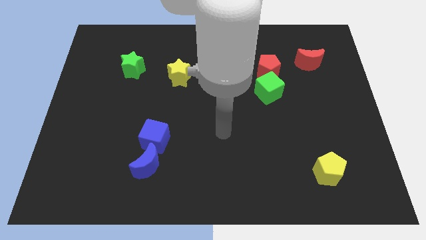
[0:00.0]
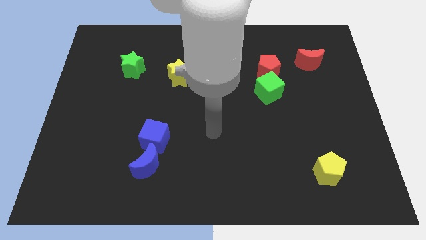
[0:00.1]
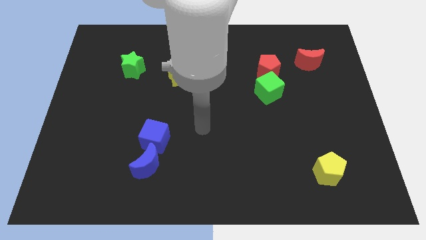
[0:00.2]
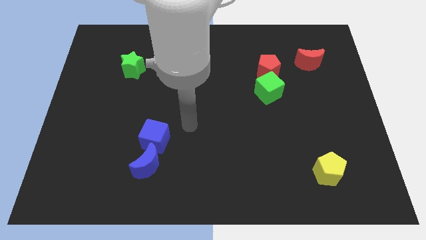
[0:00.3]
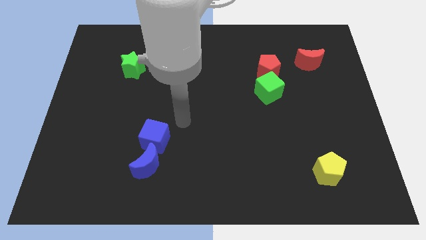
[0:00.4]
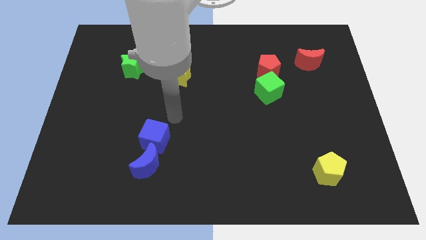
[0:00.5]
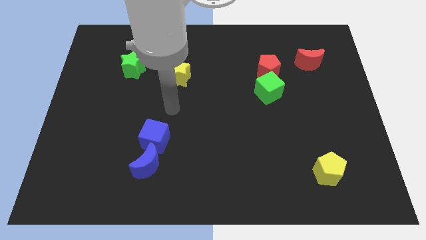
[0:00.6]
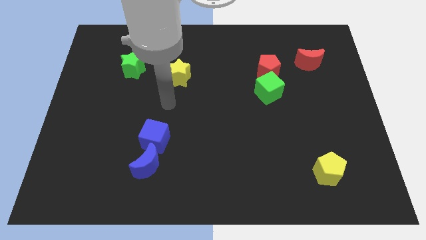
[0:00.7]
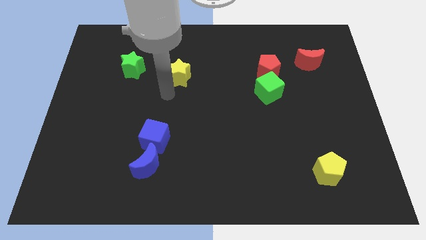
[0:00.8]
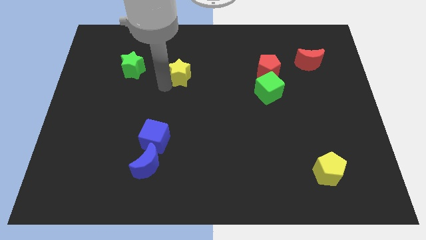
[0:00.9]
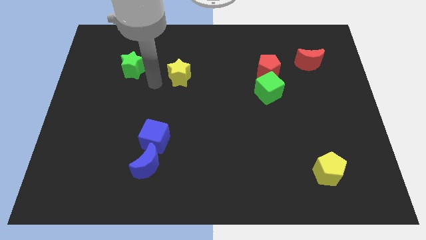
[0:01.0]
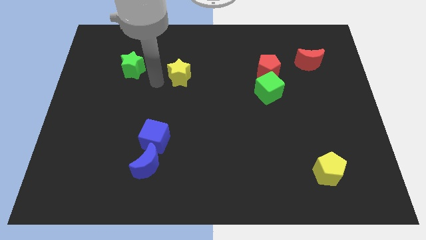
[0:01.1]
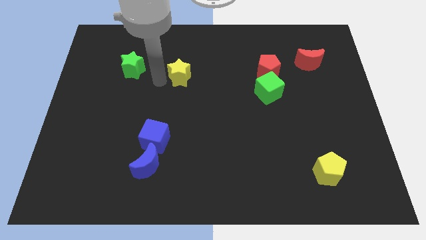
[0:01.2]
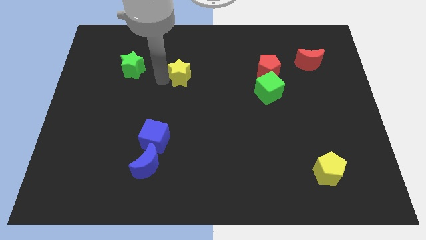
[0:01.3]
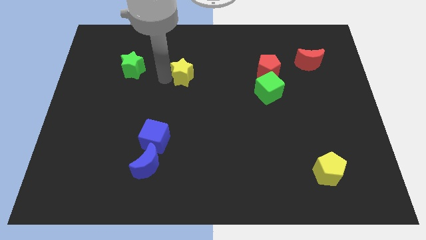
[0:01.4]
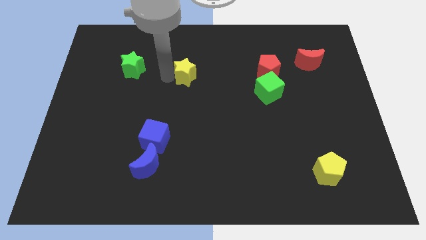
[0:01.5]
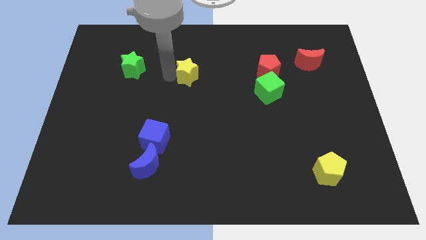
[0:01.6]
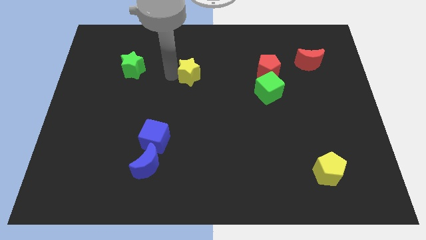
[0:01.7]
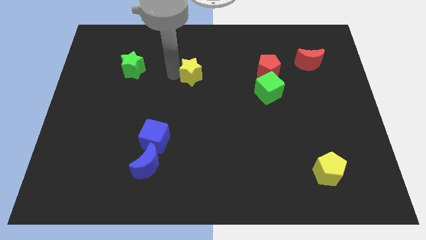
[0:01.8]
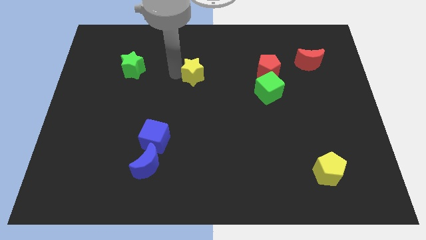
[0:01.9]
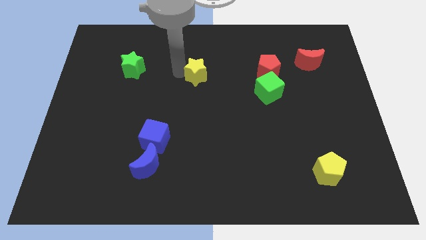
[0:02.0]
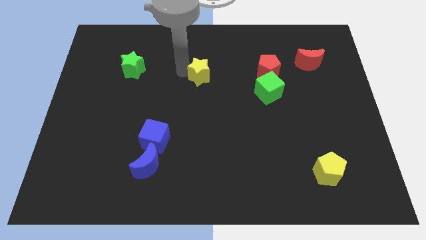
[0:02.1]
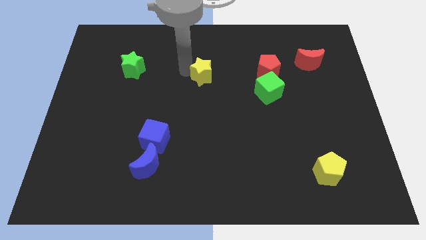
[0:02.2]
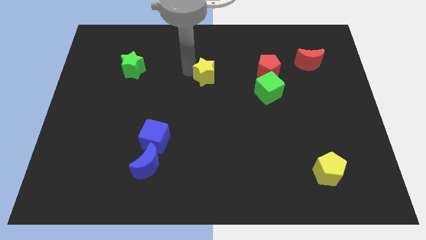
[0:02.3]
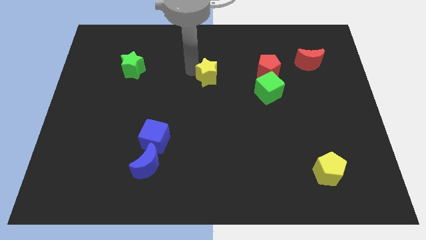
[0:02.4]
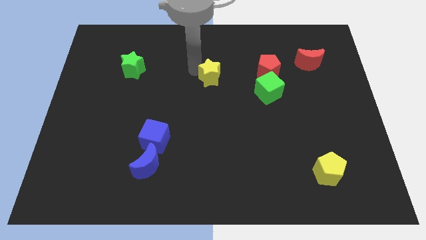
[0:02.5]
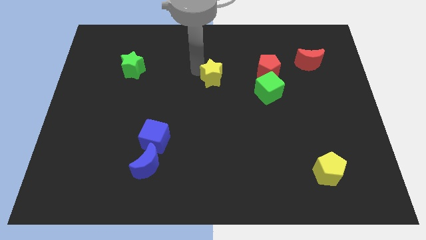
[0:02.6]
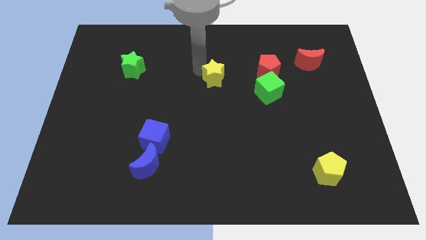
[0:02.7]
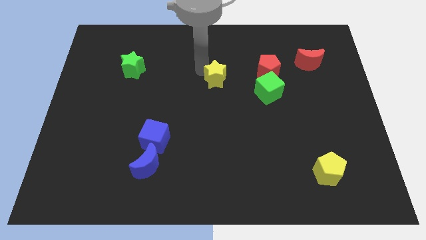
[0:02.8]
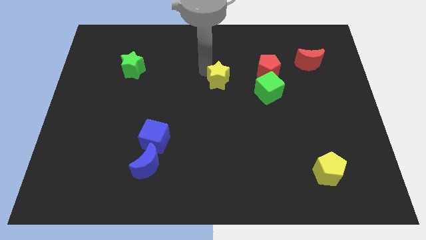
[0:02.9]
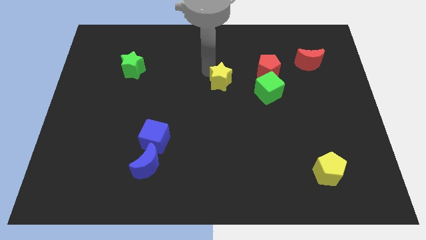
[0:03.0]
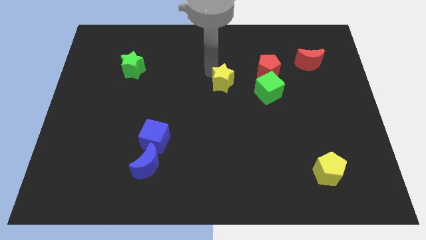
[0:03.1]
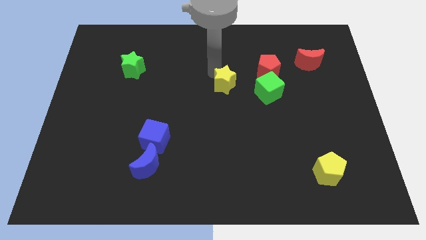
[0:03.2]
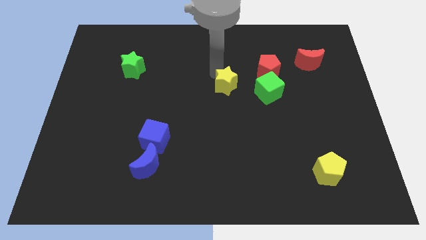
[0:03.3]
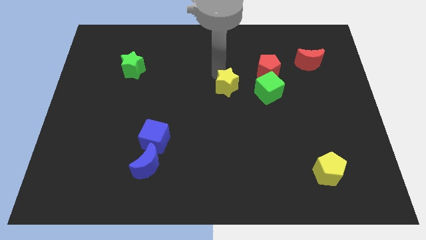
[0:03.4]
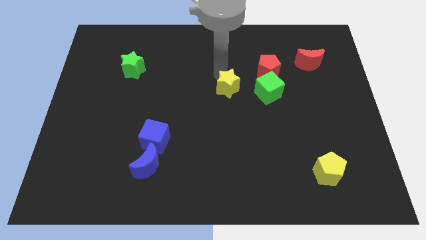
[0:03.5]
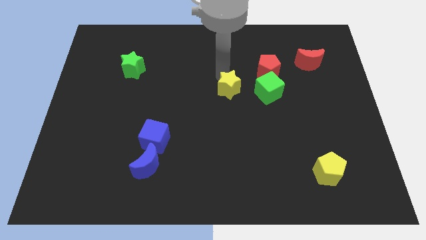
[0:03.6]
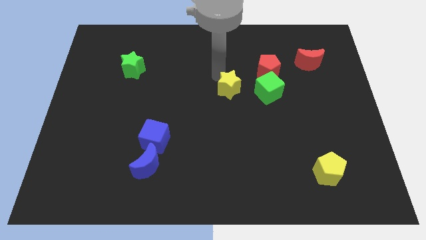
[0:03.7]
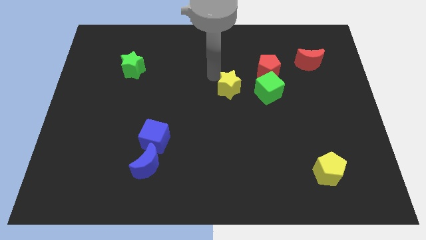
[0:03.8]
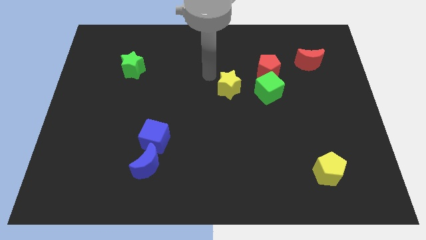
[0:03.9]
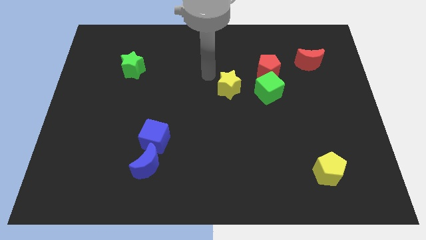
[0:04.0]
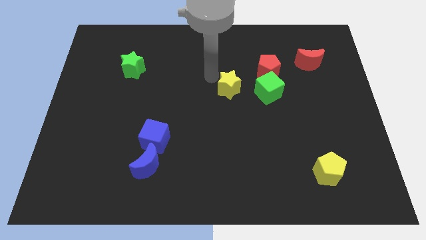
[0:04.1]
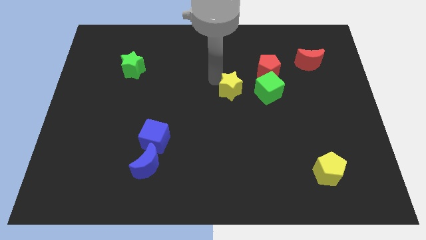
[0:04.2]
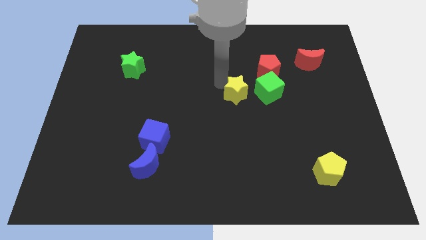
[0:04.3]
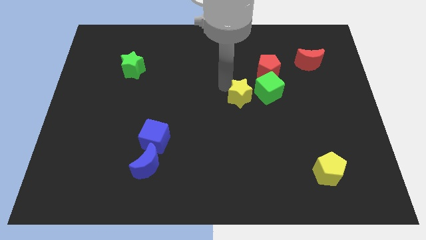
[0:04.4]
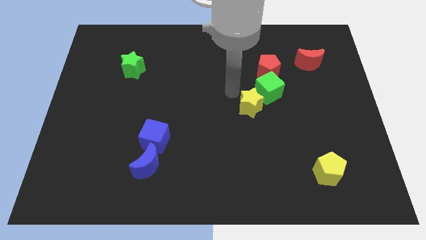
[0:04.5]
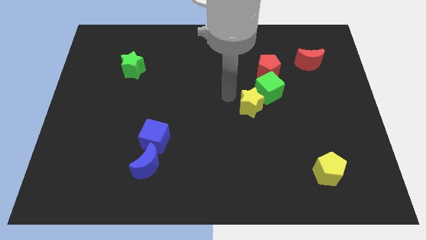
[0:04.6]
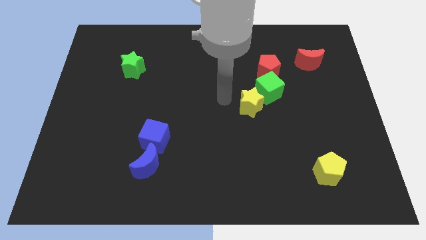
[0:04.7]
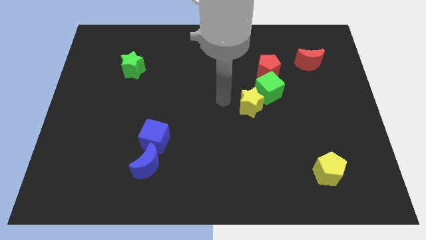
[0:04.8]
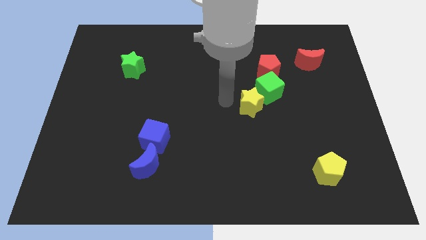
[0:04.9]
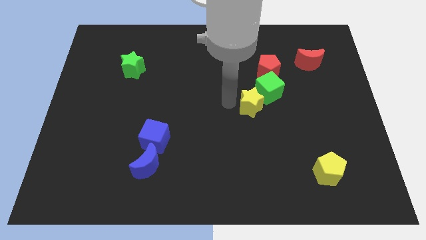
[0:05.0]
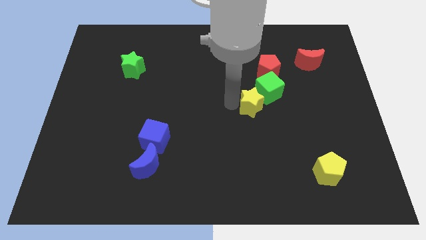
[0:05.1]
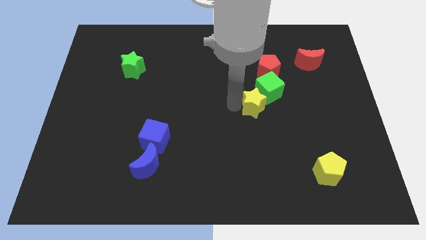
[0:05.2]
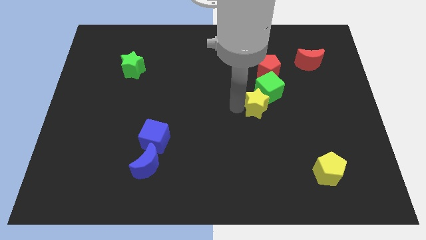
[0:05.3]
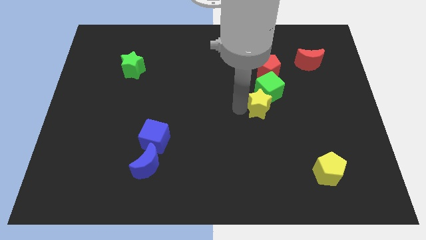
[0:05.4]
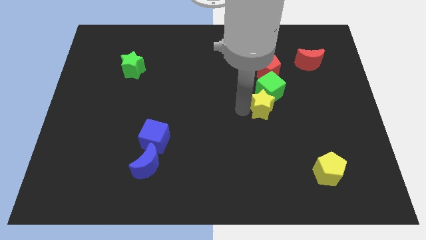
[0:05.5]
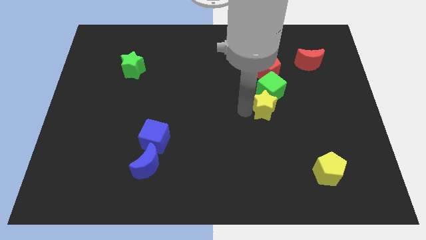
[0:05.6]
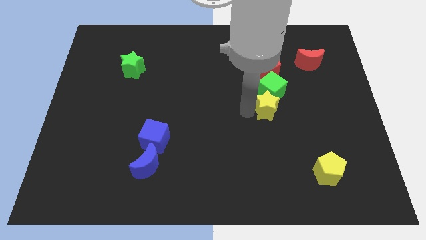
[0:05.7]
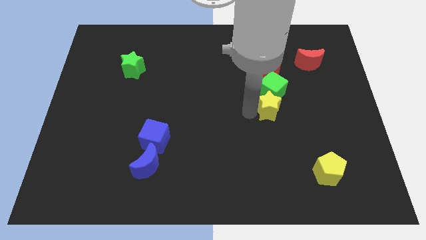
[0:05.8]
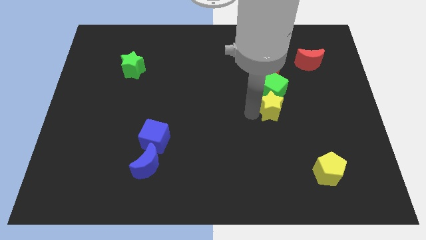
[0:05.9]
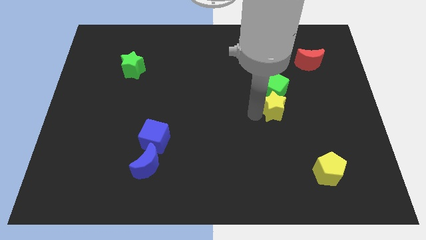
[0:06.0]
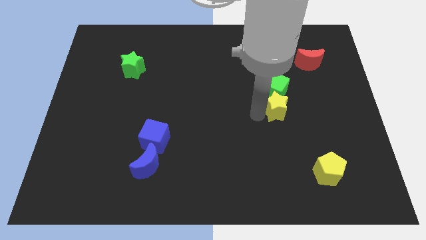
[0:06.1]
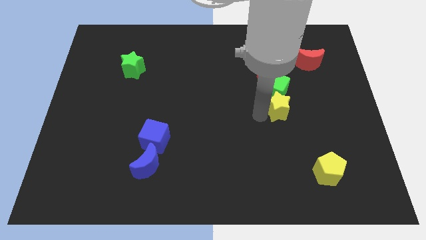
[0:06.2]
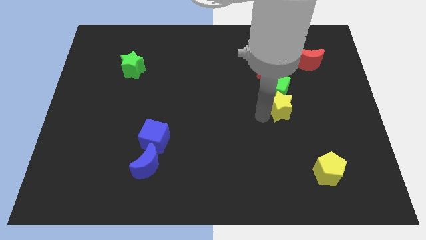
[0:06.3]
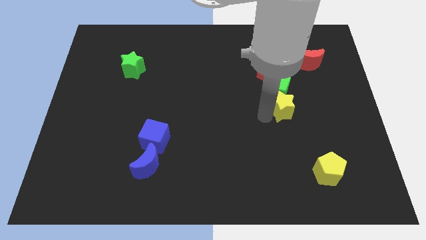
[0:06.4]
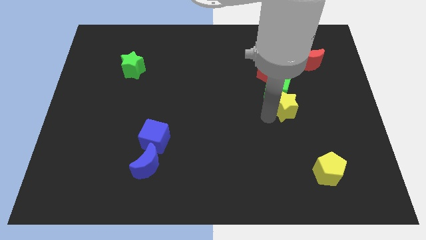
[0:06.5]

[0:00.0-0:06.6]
slide the yellow star to the right
